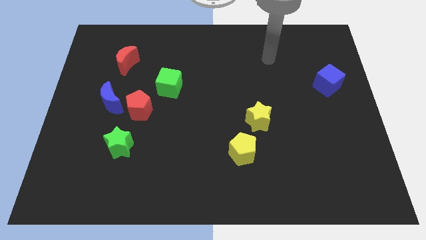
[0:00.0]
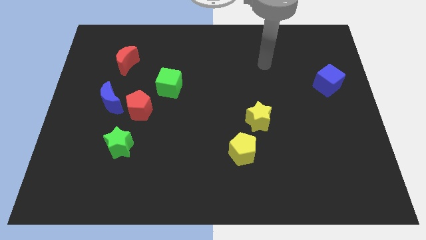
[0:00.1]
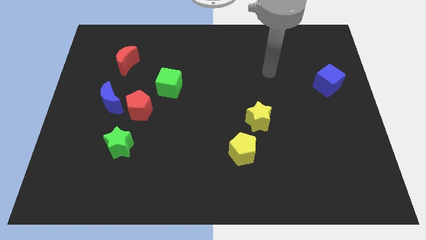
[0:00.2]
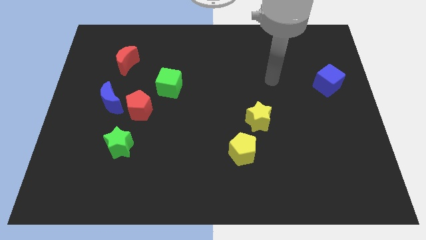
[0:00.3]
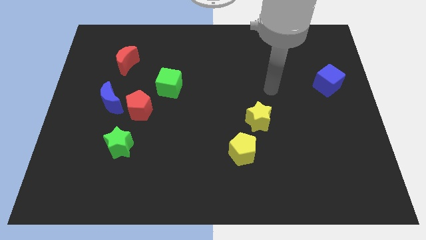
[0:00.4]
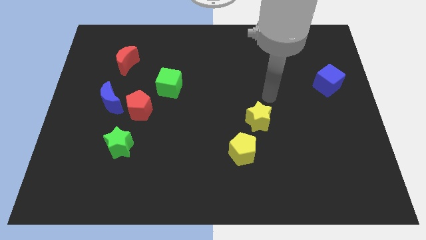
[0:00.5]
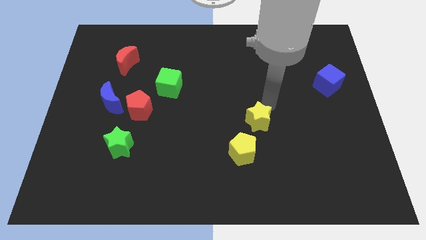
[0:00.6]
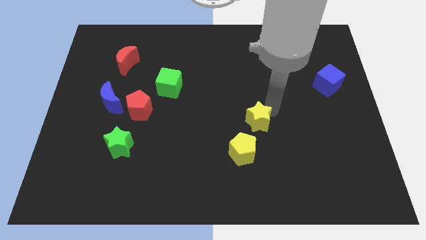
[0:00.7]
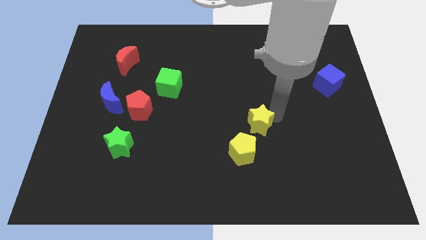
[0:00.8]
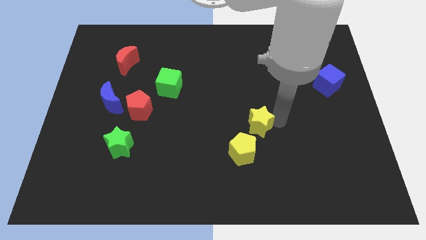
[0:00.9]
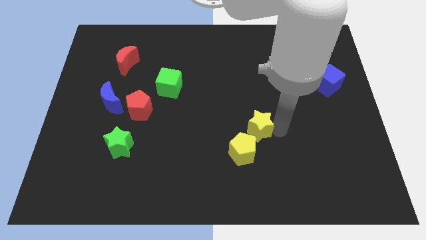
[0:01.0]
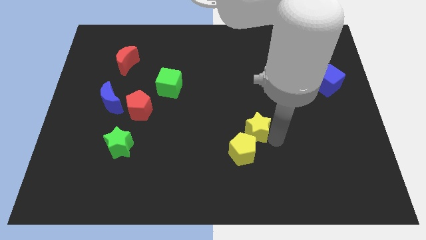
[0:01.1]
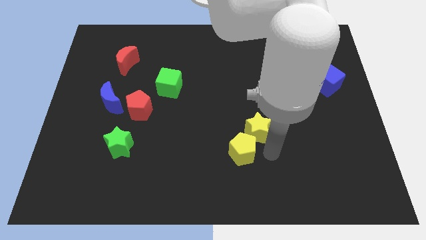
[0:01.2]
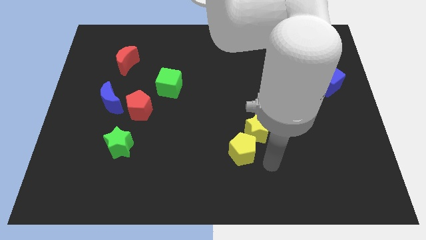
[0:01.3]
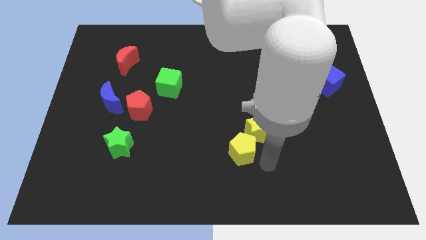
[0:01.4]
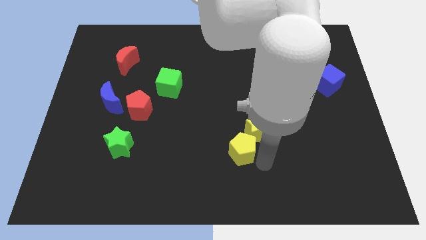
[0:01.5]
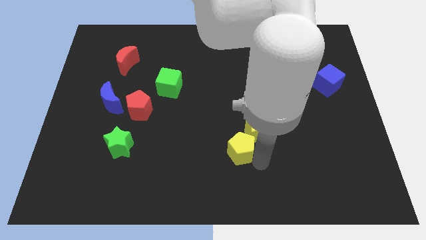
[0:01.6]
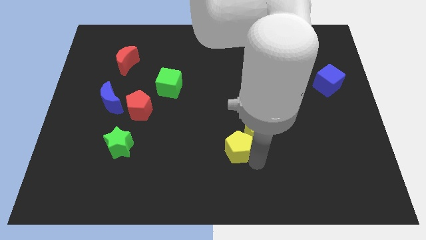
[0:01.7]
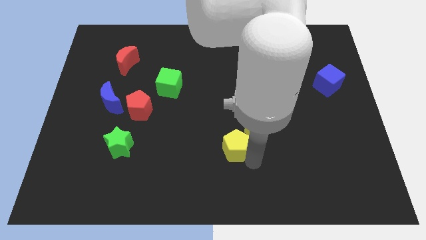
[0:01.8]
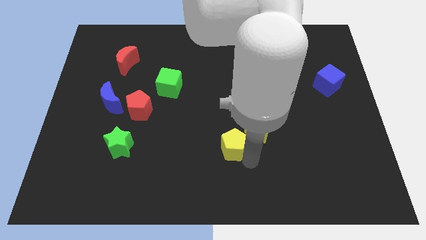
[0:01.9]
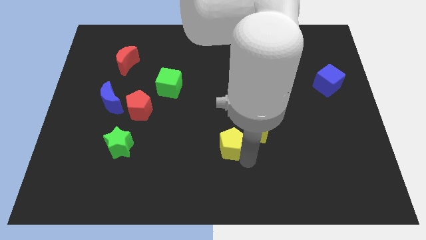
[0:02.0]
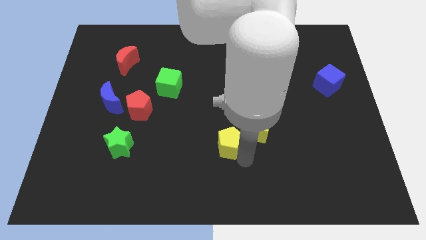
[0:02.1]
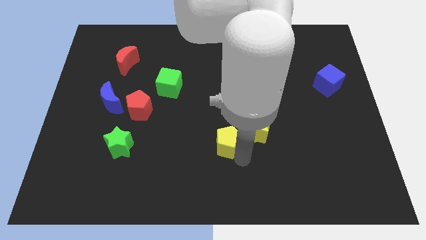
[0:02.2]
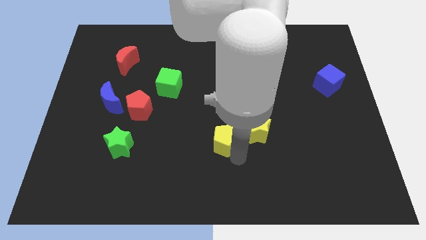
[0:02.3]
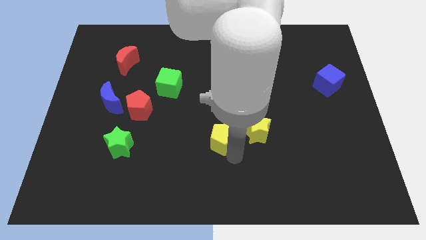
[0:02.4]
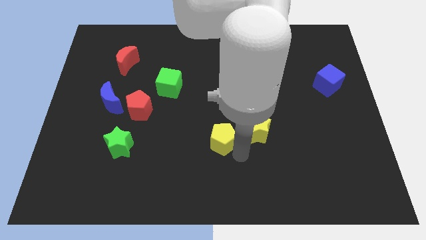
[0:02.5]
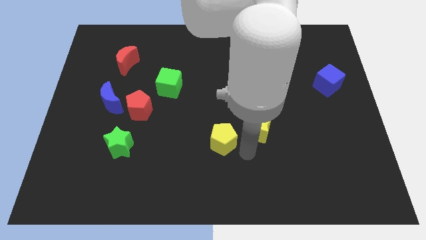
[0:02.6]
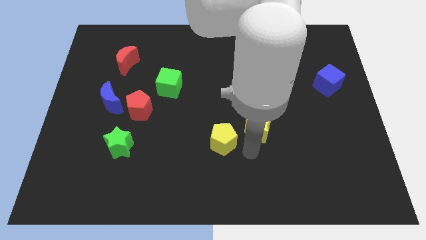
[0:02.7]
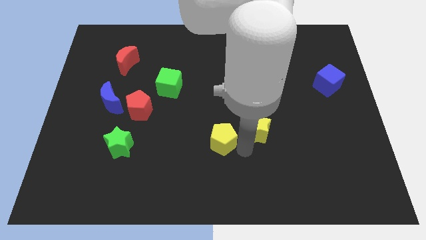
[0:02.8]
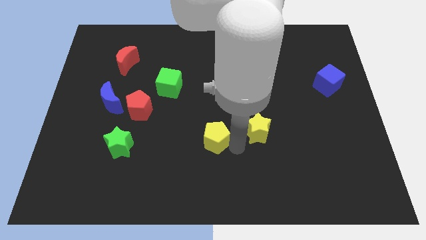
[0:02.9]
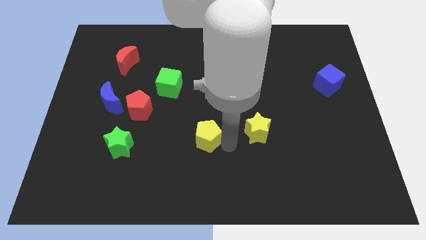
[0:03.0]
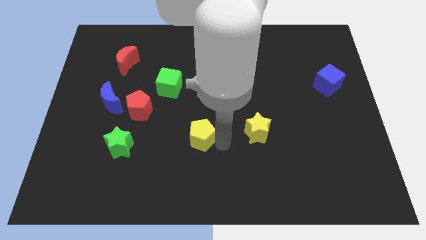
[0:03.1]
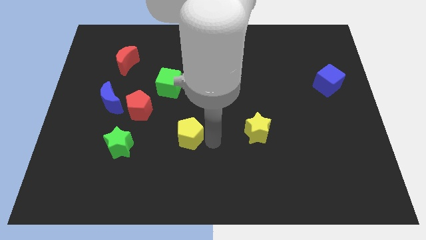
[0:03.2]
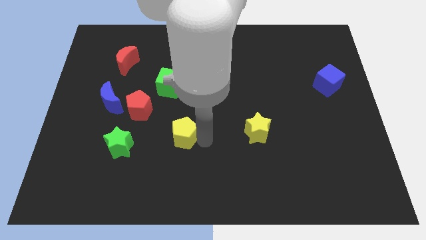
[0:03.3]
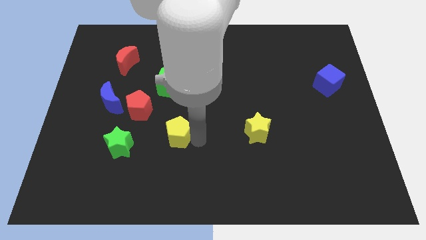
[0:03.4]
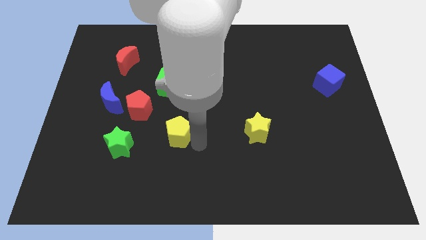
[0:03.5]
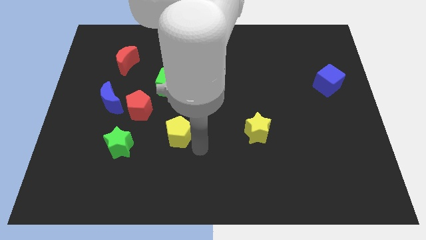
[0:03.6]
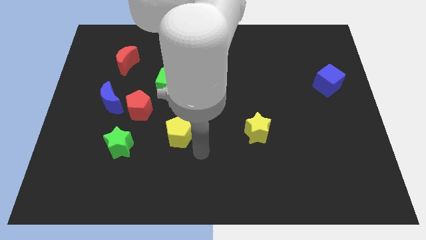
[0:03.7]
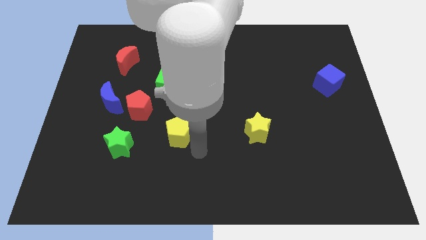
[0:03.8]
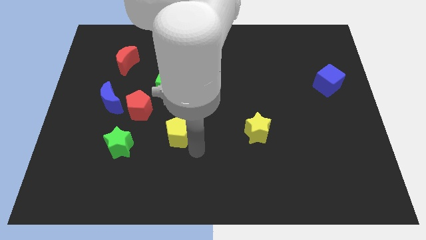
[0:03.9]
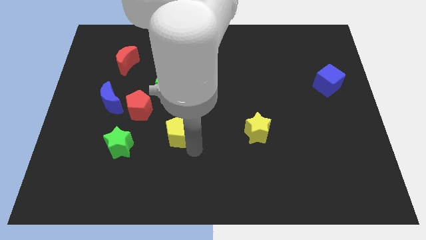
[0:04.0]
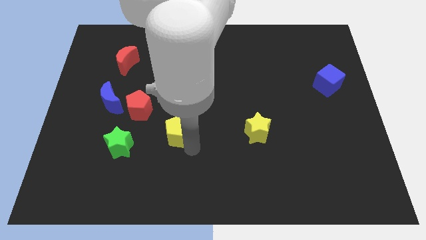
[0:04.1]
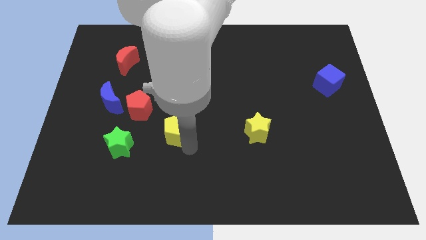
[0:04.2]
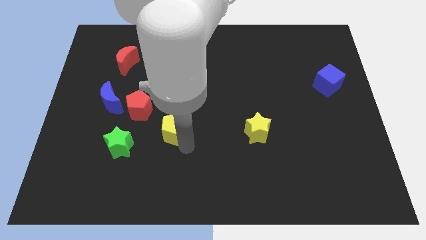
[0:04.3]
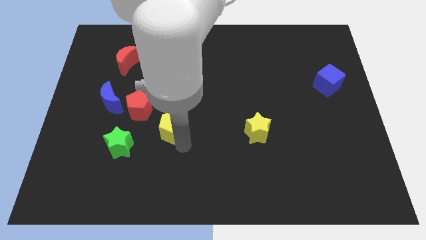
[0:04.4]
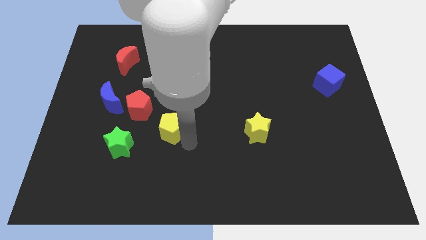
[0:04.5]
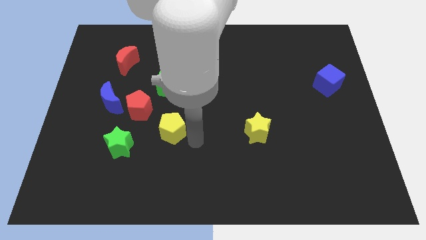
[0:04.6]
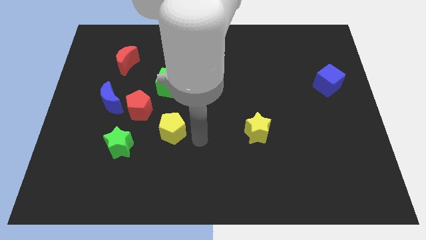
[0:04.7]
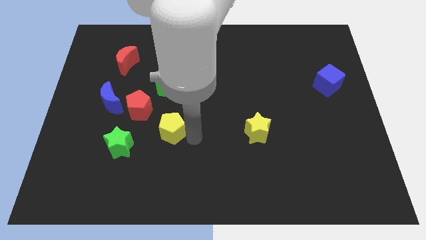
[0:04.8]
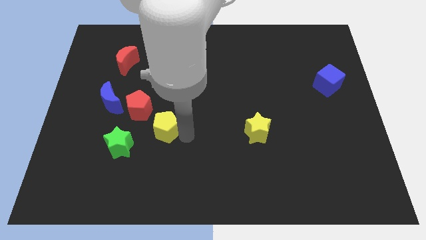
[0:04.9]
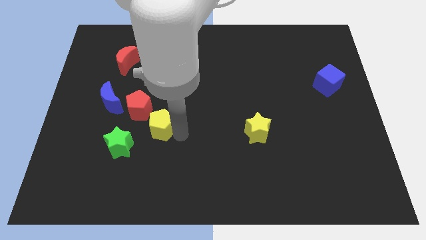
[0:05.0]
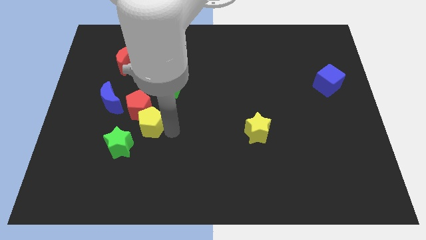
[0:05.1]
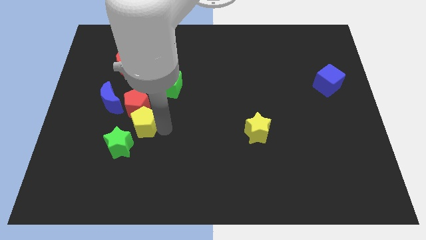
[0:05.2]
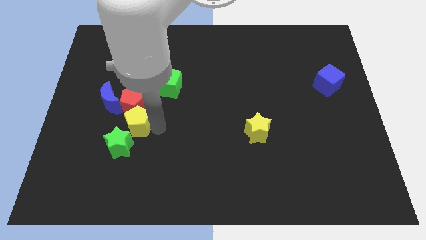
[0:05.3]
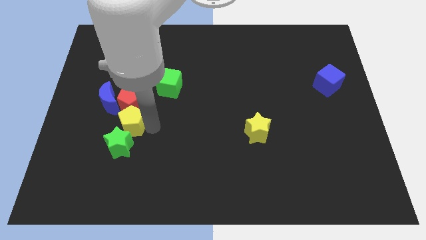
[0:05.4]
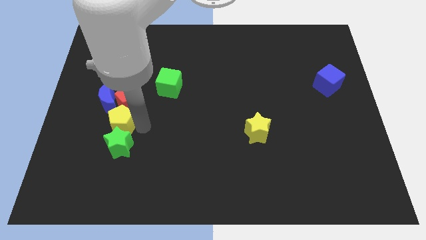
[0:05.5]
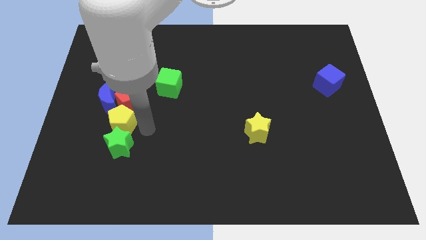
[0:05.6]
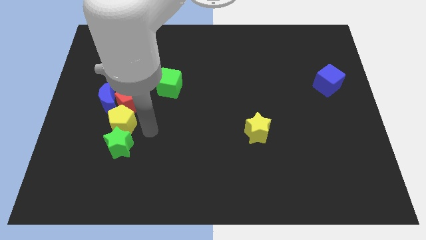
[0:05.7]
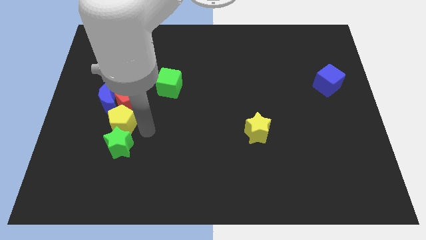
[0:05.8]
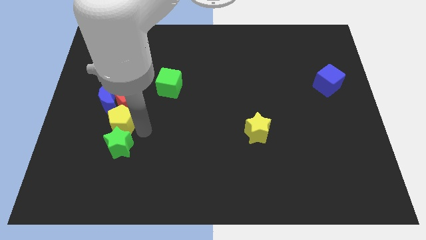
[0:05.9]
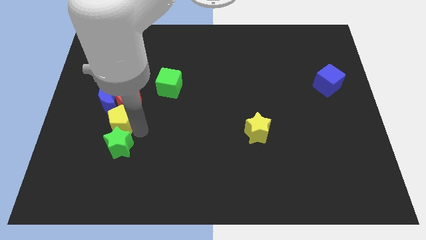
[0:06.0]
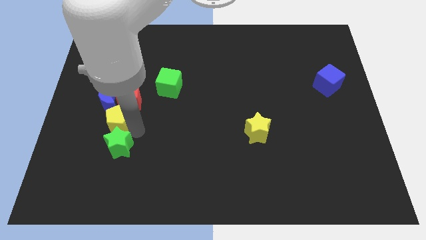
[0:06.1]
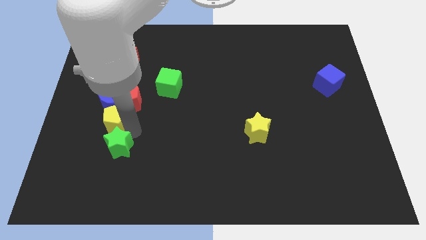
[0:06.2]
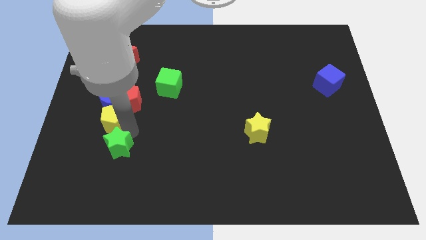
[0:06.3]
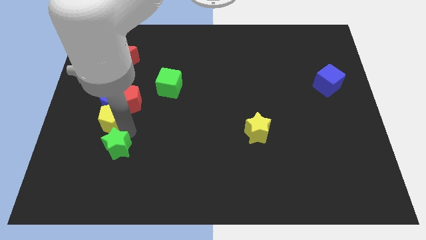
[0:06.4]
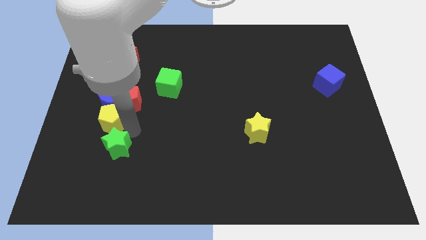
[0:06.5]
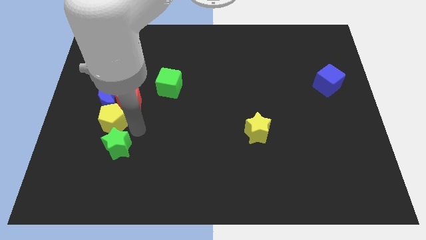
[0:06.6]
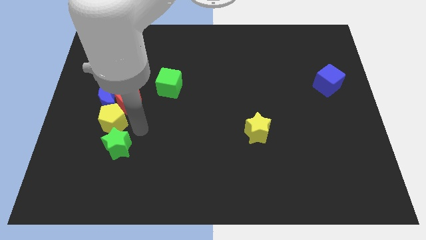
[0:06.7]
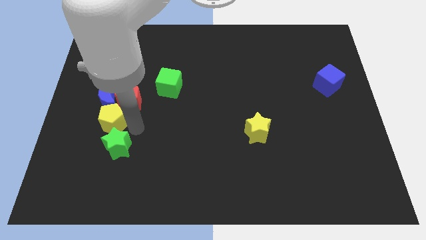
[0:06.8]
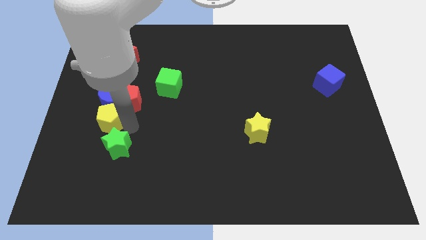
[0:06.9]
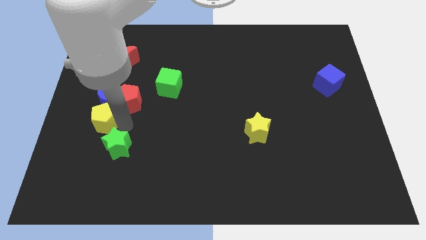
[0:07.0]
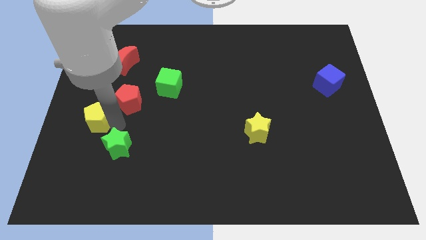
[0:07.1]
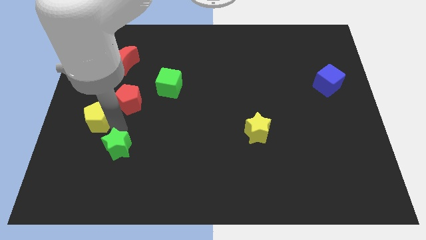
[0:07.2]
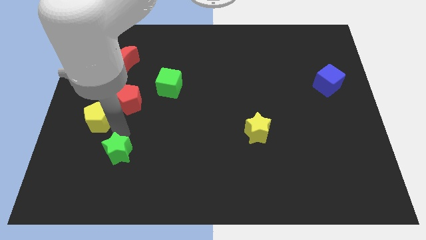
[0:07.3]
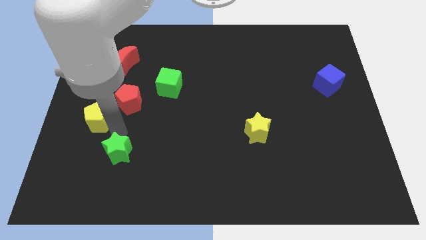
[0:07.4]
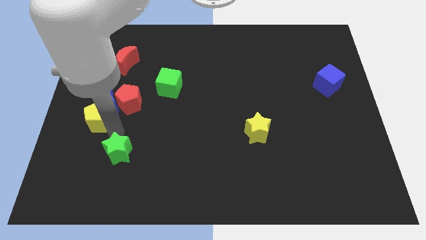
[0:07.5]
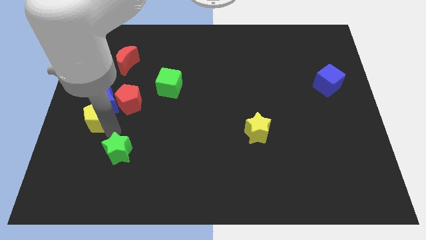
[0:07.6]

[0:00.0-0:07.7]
put the yellow pentagon to the left side
